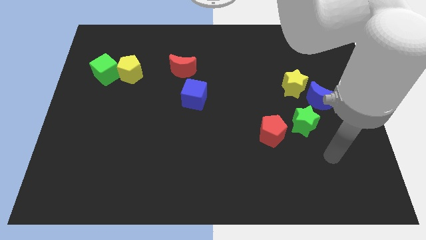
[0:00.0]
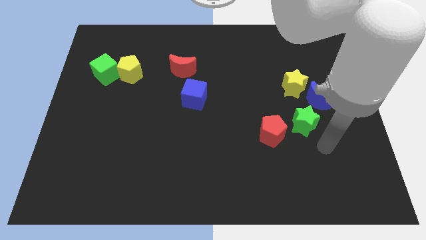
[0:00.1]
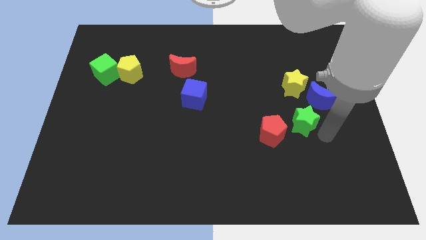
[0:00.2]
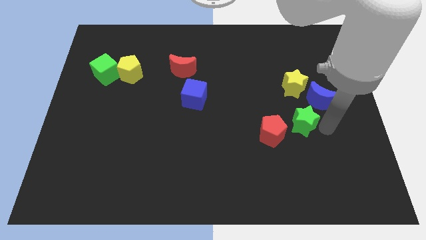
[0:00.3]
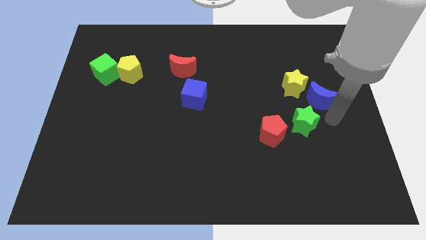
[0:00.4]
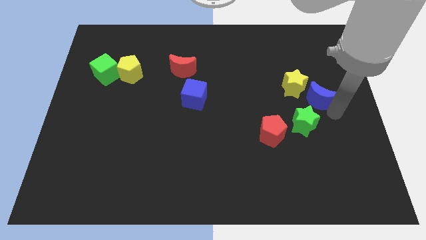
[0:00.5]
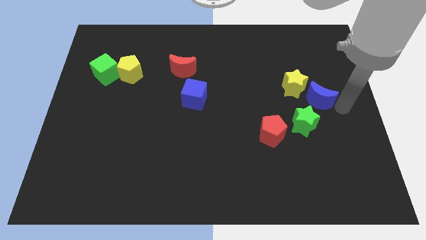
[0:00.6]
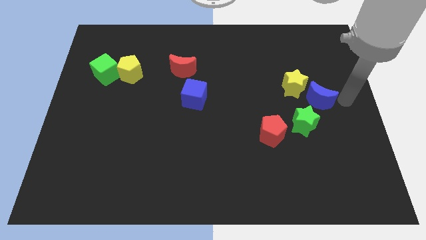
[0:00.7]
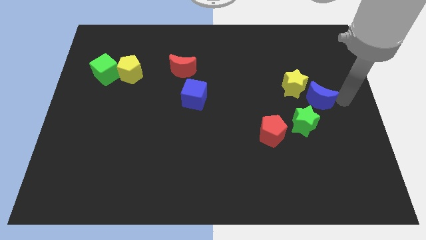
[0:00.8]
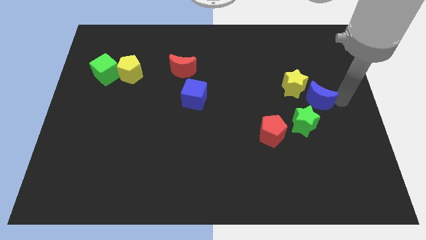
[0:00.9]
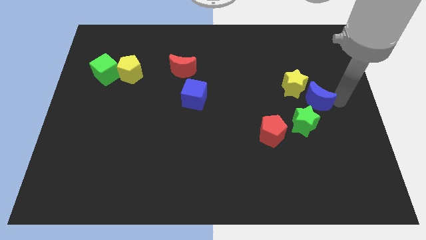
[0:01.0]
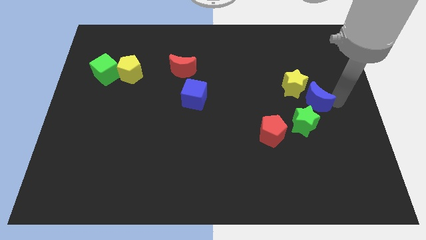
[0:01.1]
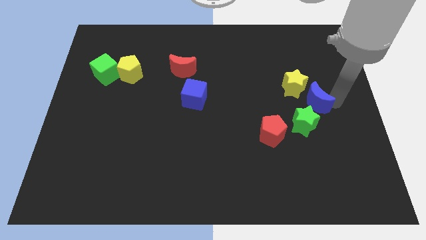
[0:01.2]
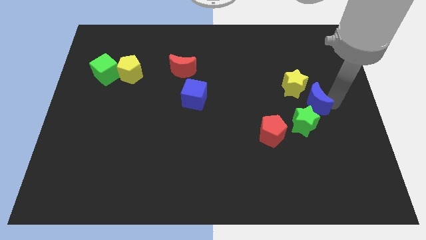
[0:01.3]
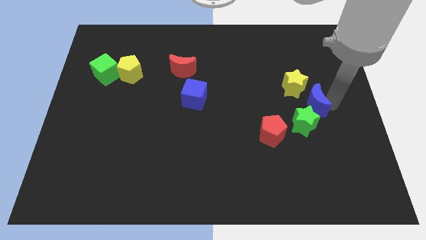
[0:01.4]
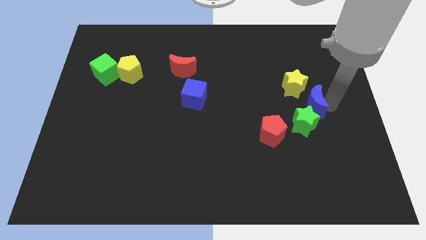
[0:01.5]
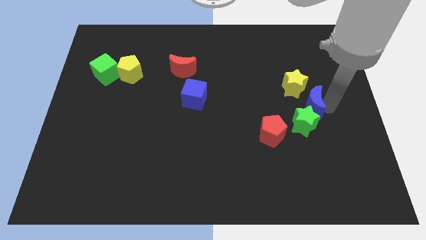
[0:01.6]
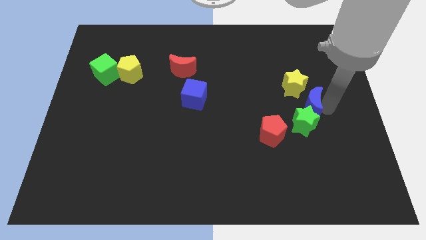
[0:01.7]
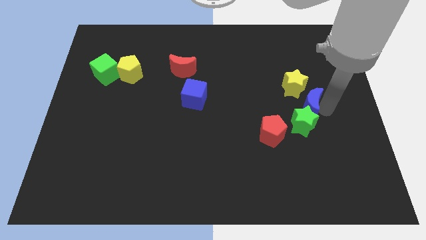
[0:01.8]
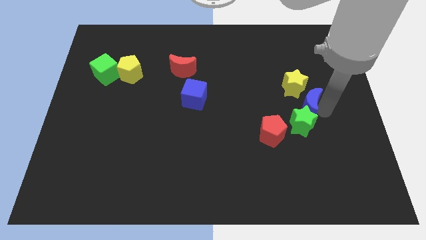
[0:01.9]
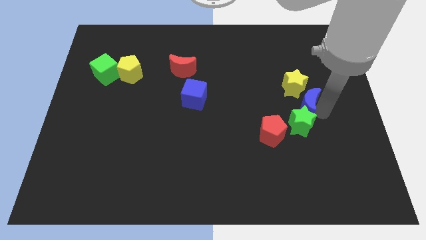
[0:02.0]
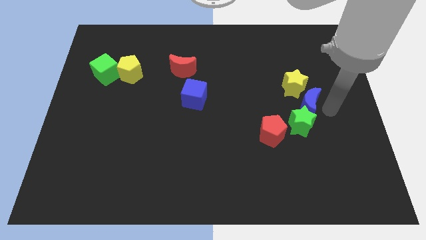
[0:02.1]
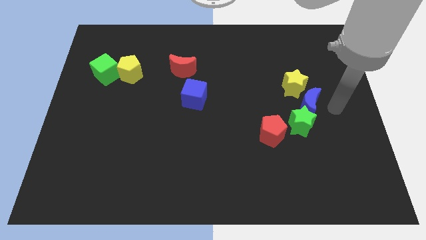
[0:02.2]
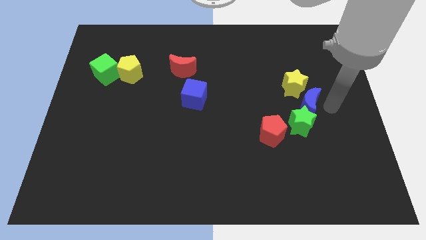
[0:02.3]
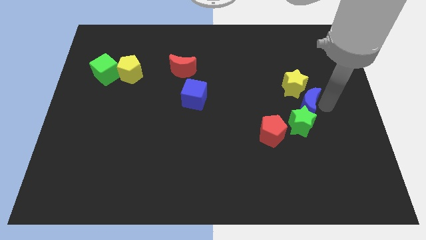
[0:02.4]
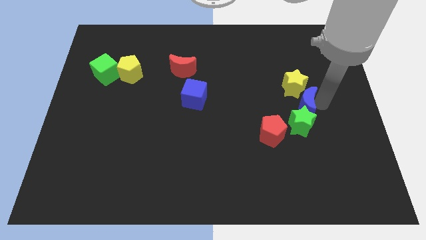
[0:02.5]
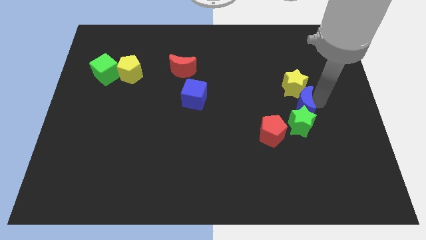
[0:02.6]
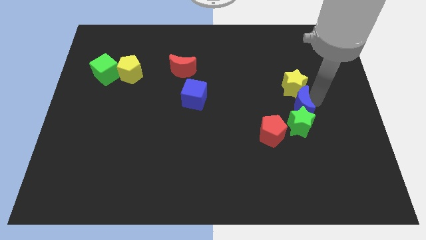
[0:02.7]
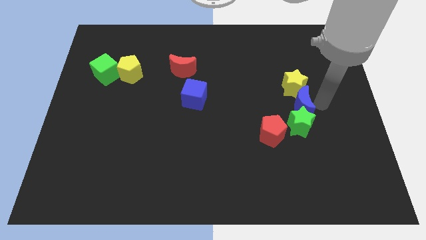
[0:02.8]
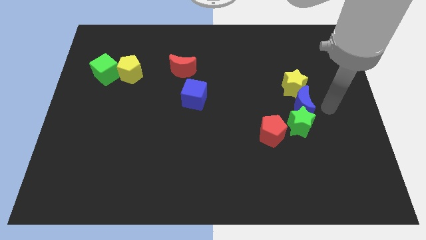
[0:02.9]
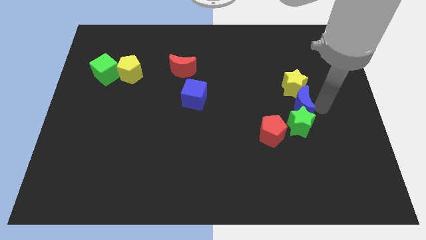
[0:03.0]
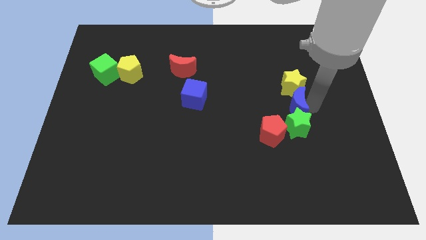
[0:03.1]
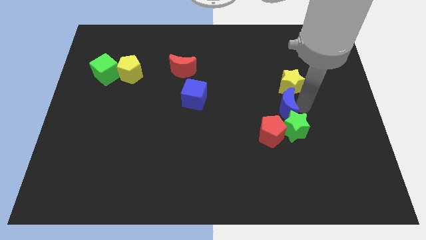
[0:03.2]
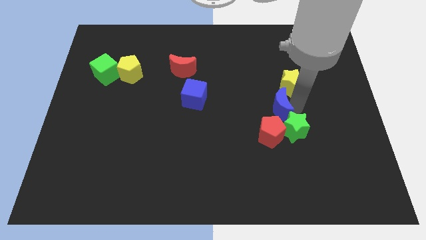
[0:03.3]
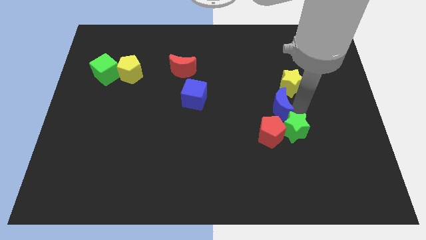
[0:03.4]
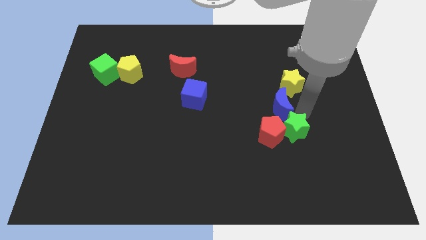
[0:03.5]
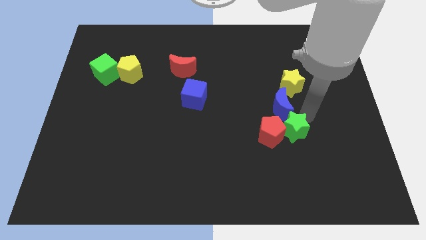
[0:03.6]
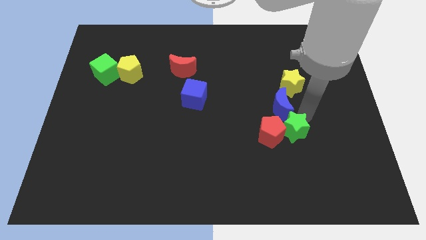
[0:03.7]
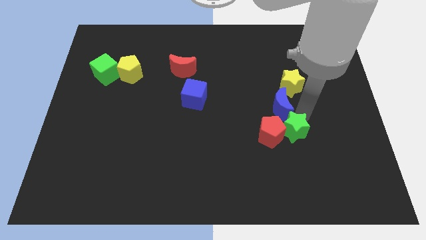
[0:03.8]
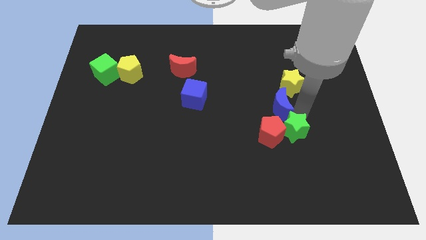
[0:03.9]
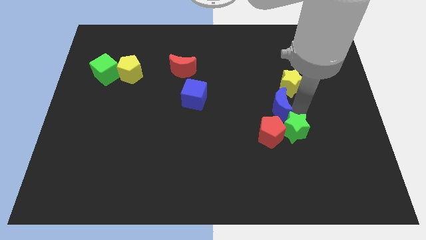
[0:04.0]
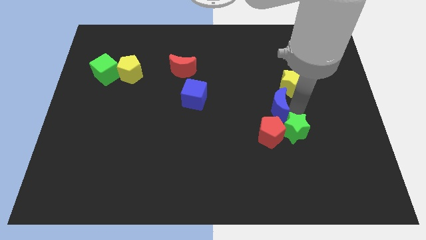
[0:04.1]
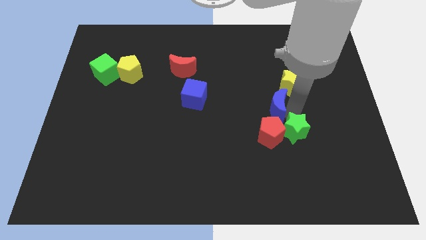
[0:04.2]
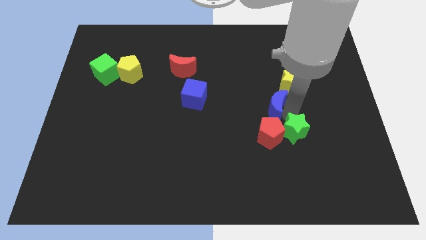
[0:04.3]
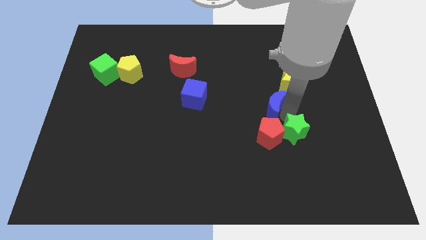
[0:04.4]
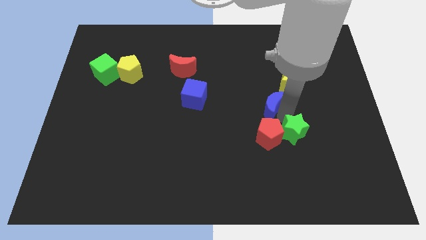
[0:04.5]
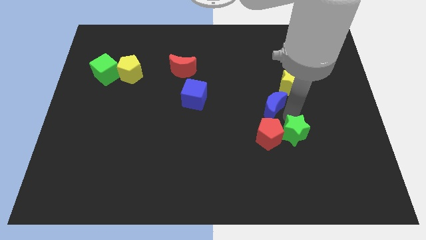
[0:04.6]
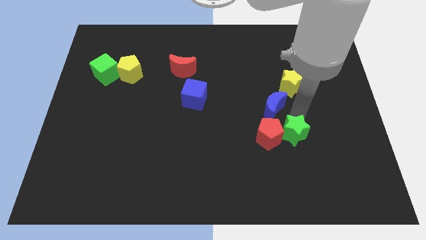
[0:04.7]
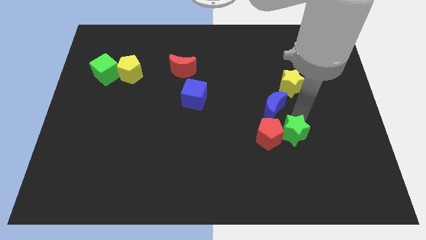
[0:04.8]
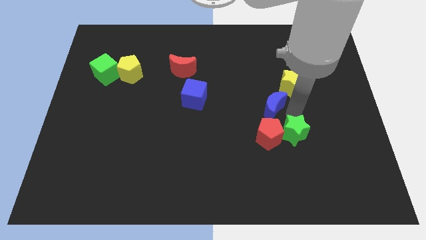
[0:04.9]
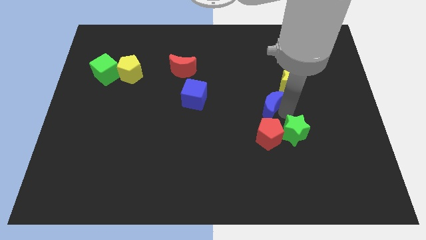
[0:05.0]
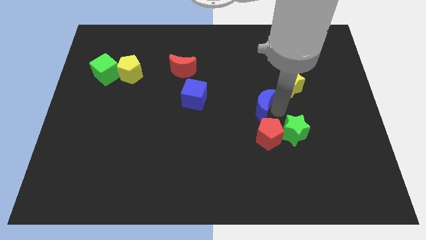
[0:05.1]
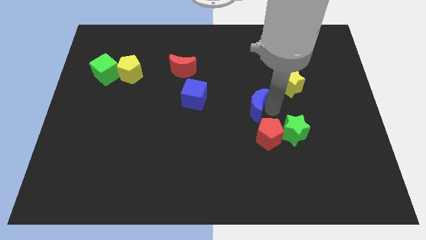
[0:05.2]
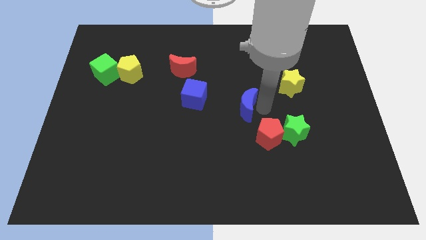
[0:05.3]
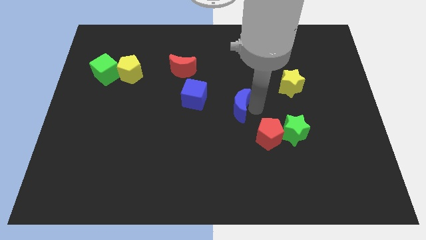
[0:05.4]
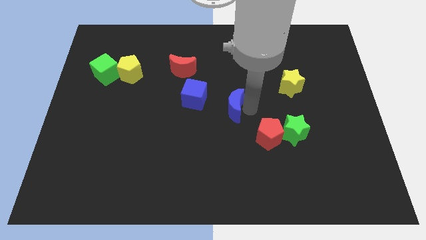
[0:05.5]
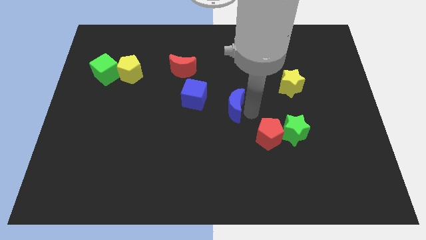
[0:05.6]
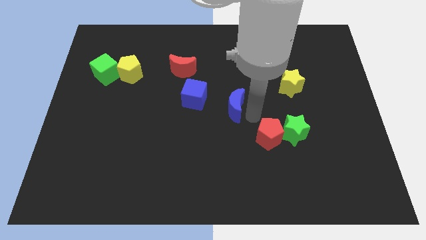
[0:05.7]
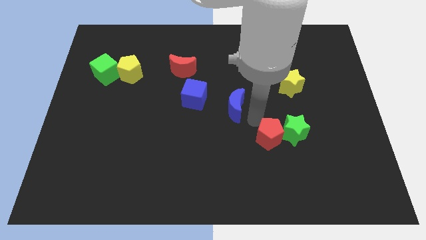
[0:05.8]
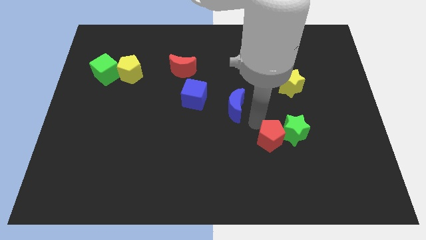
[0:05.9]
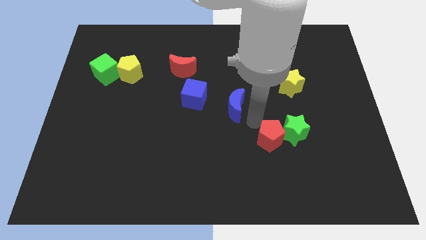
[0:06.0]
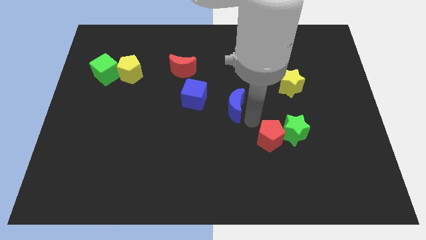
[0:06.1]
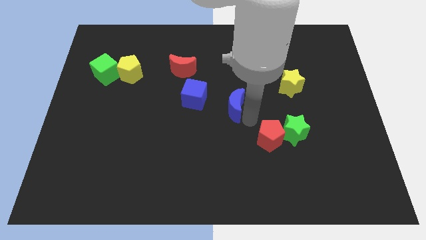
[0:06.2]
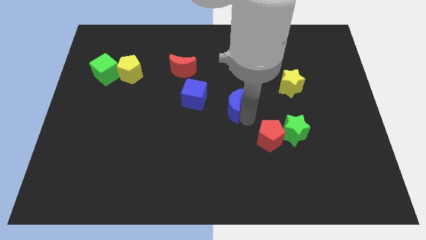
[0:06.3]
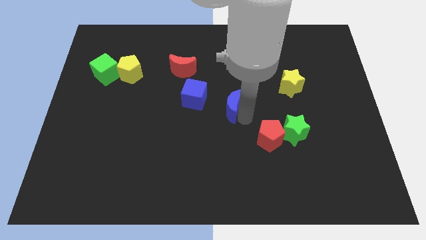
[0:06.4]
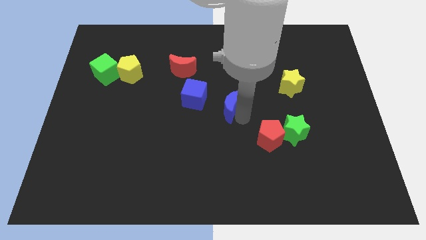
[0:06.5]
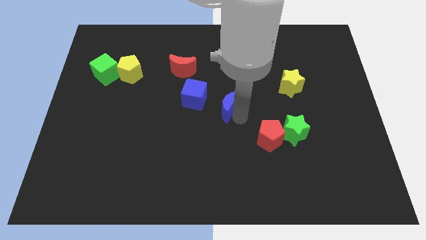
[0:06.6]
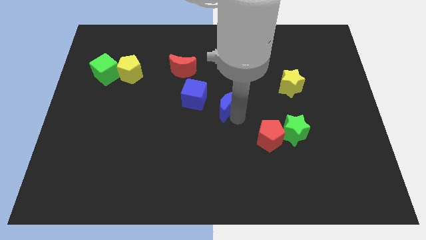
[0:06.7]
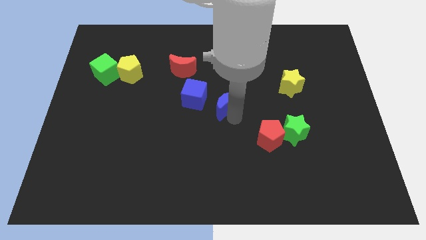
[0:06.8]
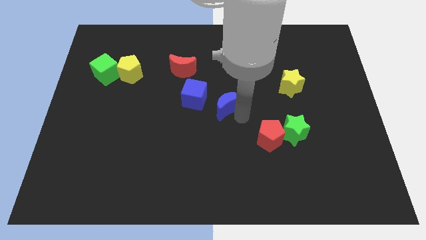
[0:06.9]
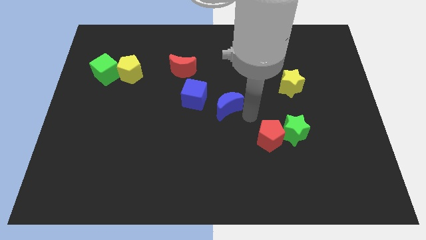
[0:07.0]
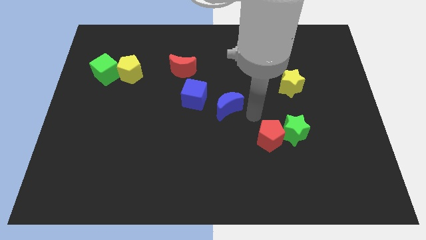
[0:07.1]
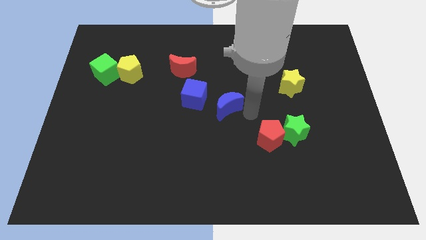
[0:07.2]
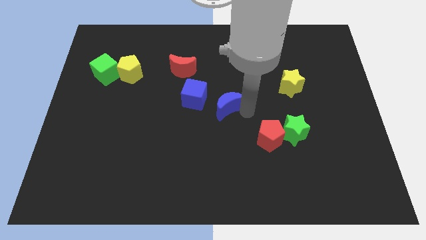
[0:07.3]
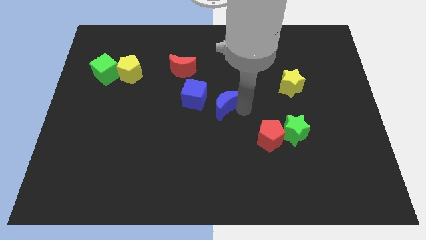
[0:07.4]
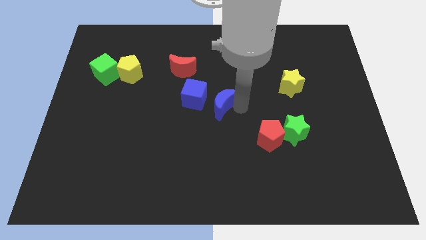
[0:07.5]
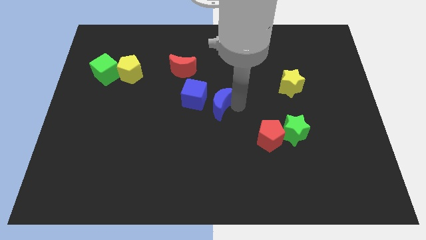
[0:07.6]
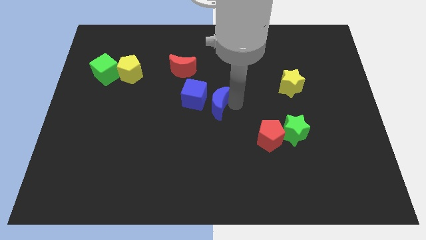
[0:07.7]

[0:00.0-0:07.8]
move the blue moon to the blue cube
